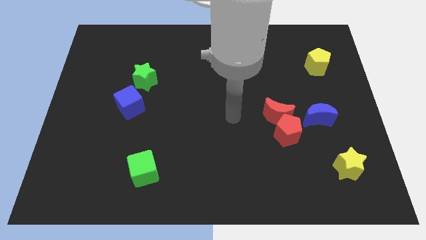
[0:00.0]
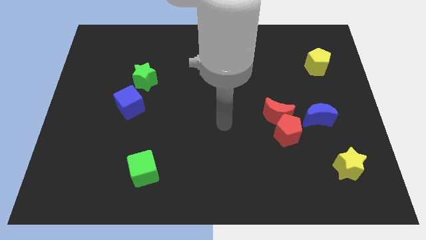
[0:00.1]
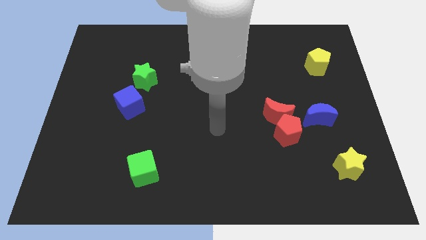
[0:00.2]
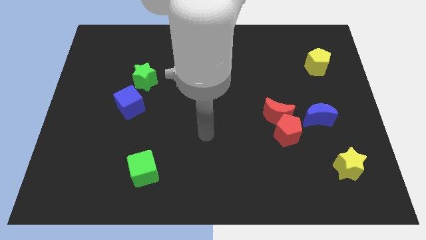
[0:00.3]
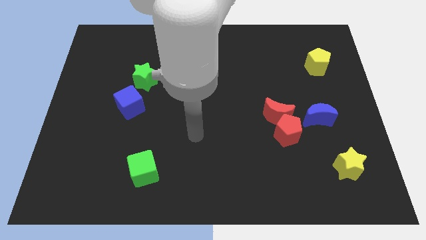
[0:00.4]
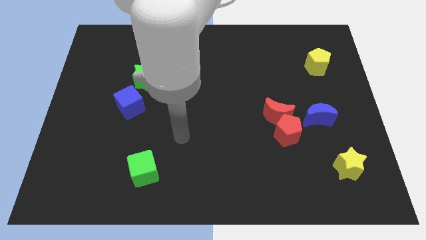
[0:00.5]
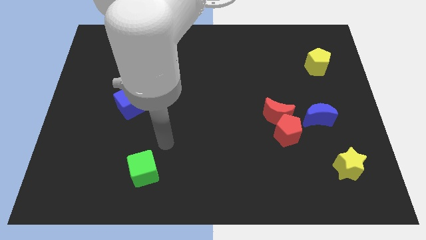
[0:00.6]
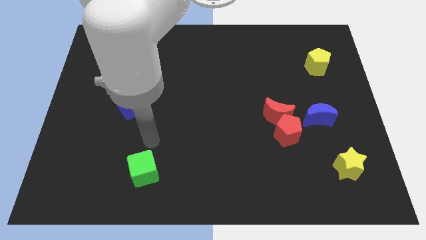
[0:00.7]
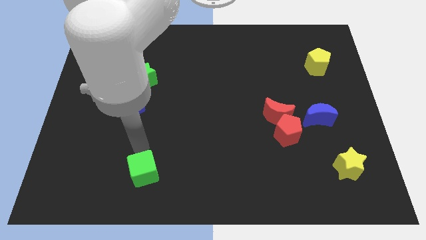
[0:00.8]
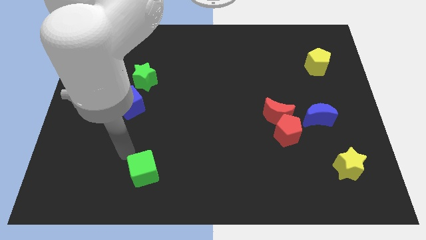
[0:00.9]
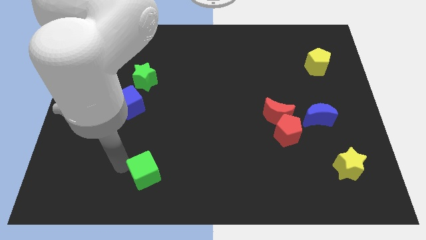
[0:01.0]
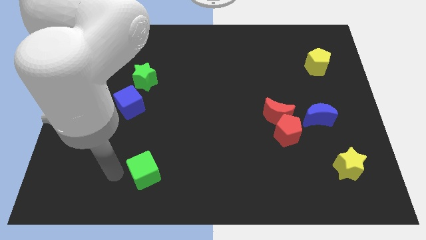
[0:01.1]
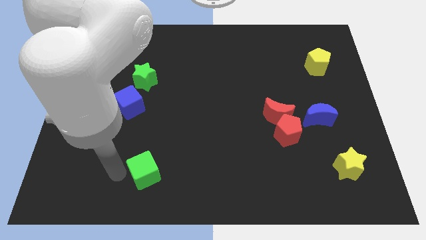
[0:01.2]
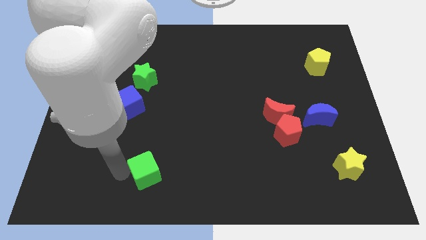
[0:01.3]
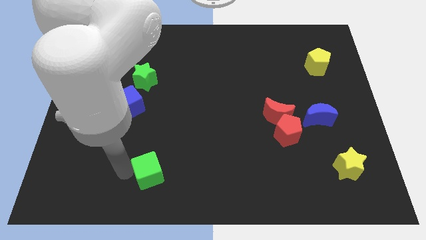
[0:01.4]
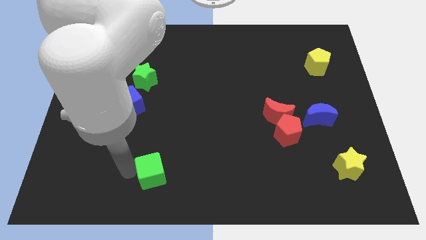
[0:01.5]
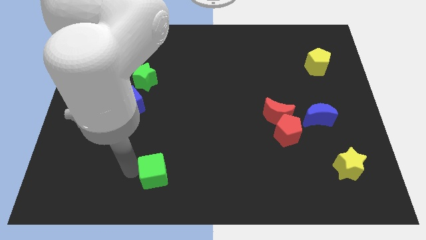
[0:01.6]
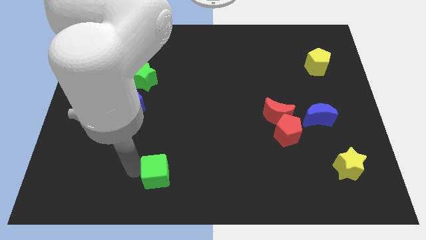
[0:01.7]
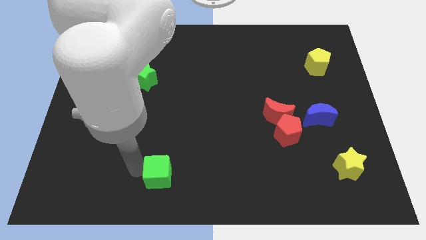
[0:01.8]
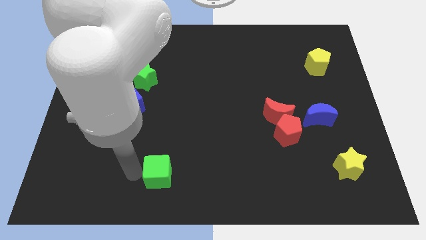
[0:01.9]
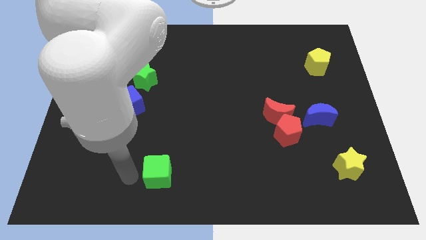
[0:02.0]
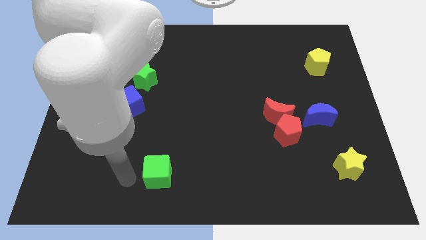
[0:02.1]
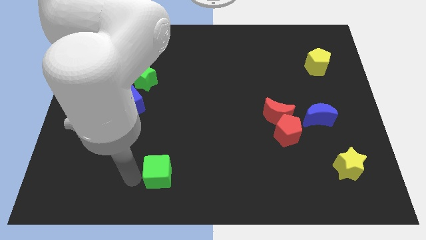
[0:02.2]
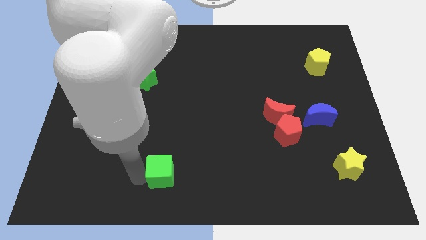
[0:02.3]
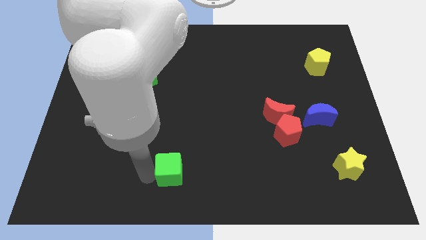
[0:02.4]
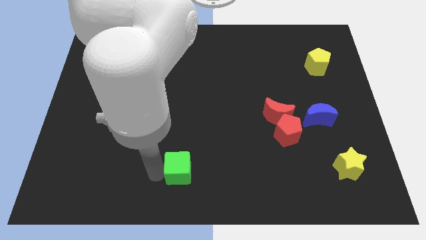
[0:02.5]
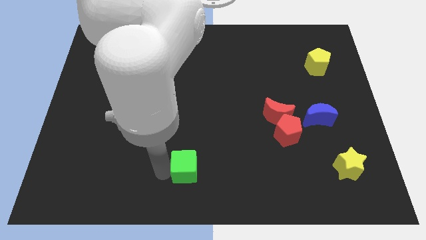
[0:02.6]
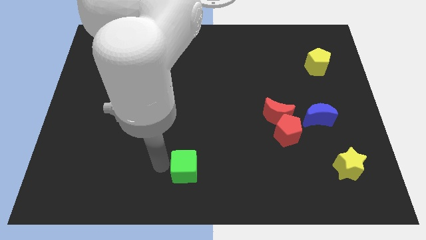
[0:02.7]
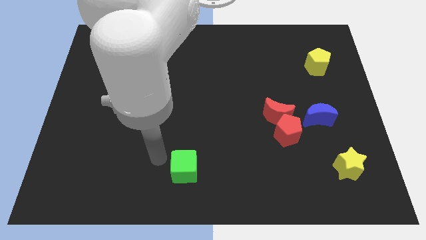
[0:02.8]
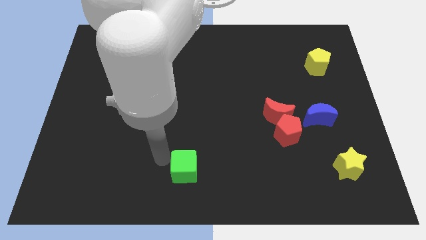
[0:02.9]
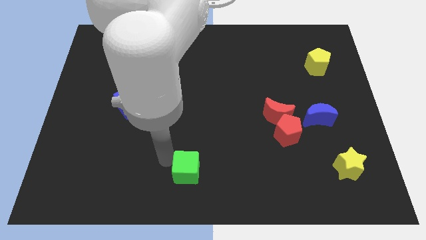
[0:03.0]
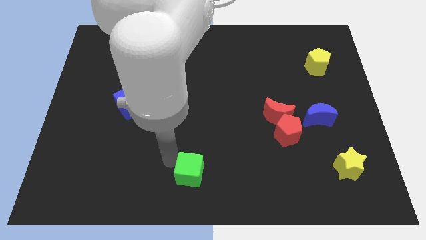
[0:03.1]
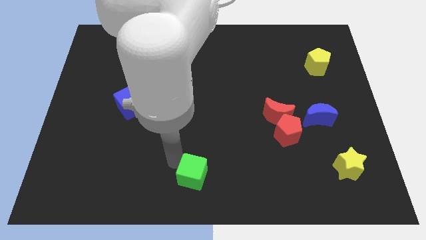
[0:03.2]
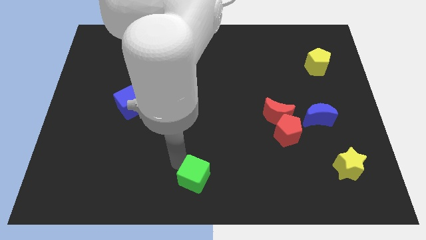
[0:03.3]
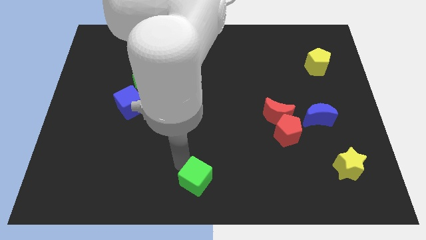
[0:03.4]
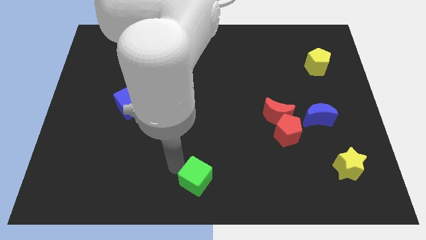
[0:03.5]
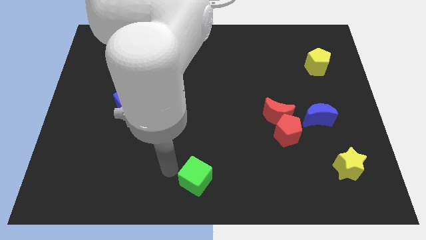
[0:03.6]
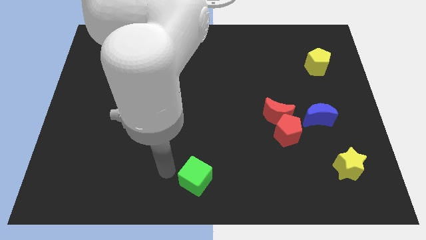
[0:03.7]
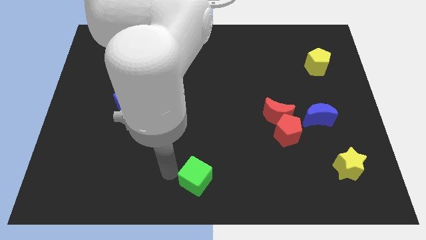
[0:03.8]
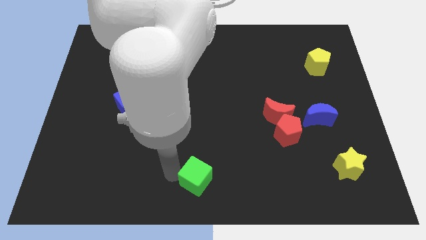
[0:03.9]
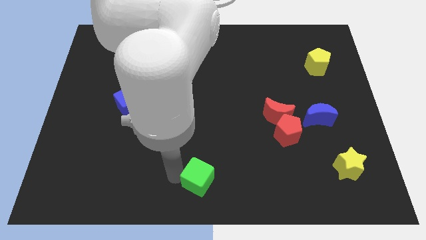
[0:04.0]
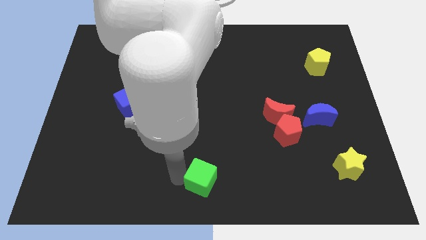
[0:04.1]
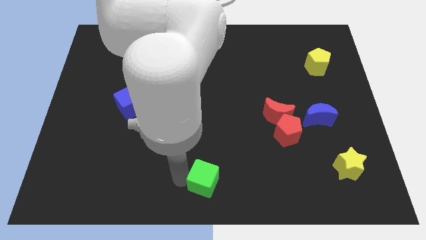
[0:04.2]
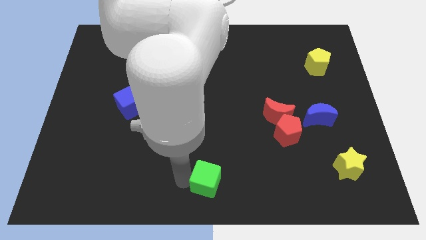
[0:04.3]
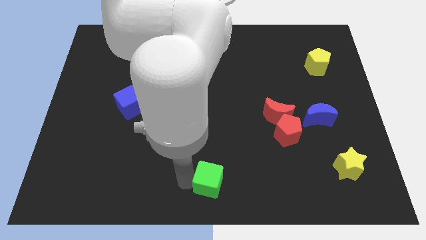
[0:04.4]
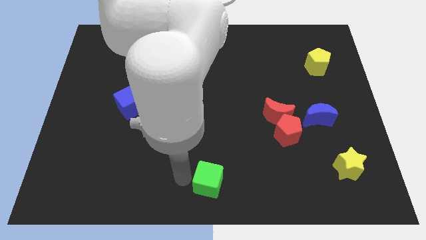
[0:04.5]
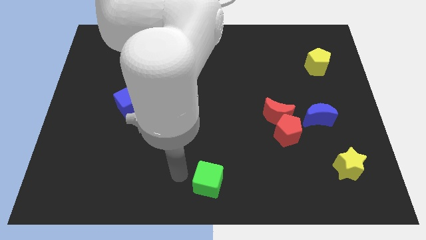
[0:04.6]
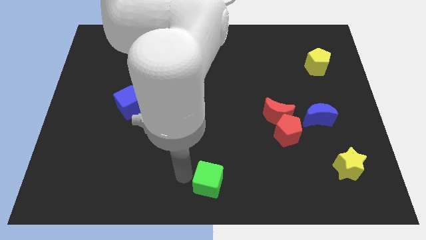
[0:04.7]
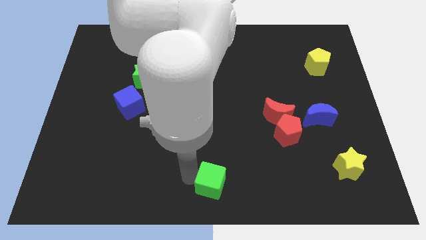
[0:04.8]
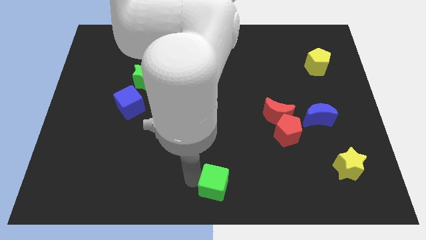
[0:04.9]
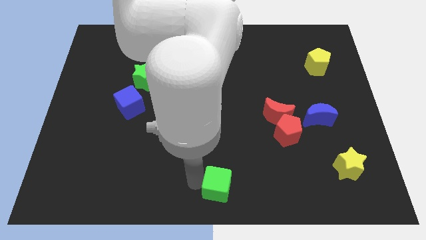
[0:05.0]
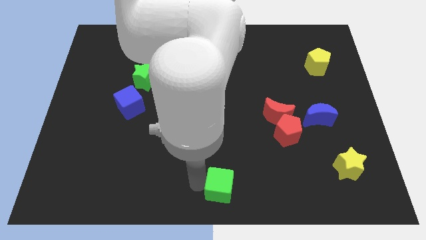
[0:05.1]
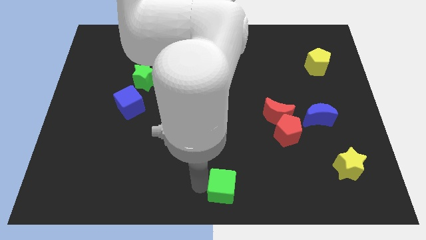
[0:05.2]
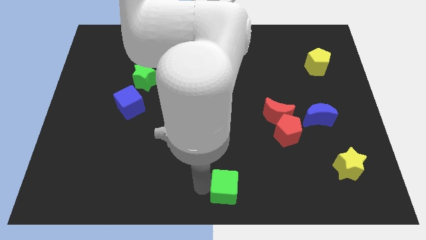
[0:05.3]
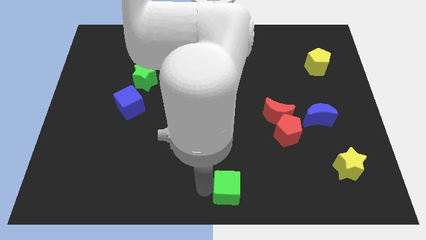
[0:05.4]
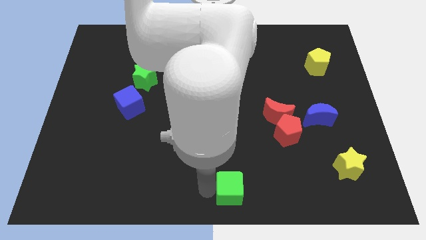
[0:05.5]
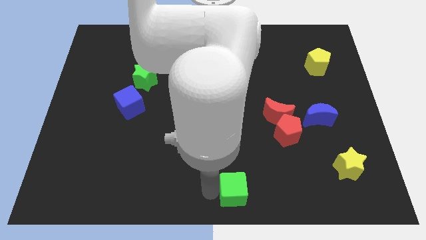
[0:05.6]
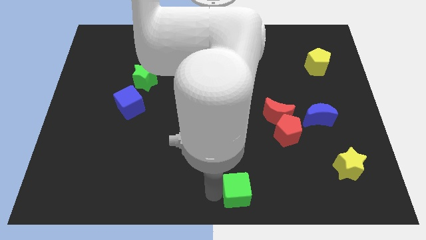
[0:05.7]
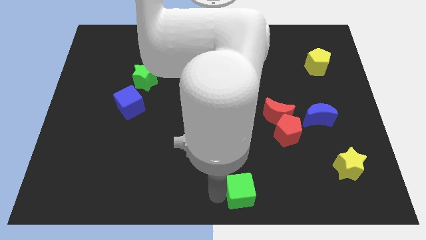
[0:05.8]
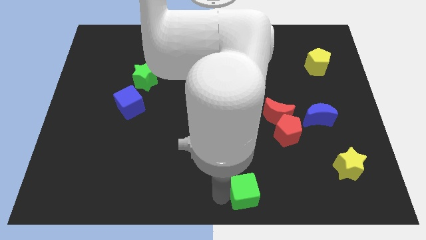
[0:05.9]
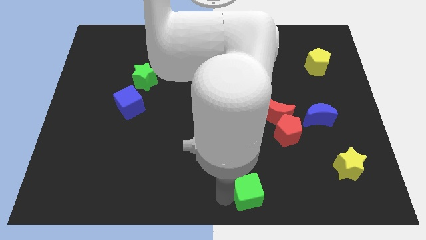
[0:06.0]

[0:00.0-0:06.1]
slide the green cube right

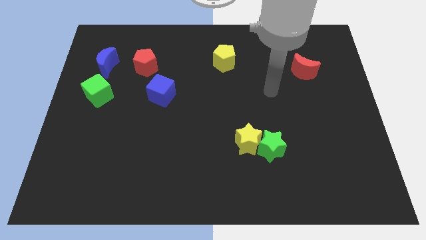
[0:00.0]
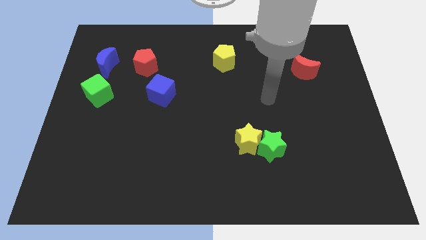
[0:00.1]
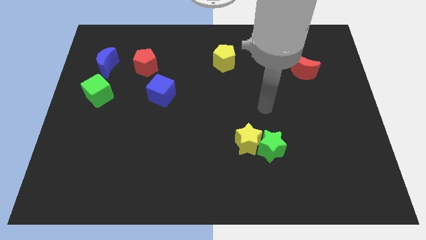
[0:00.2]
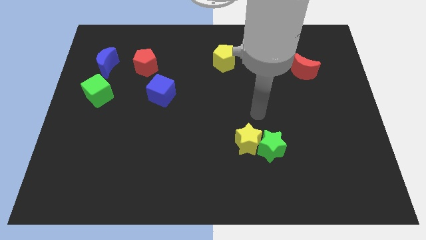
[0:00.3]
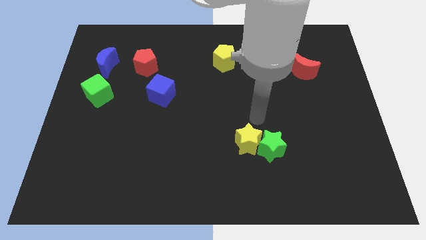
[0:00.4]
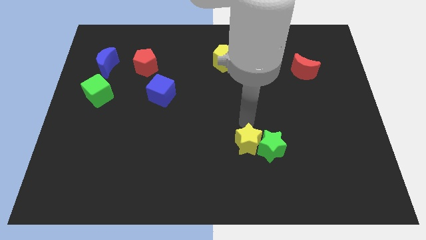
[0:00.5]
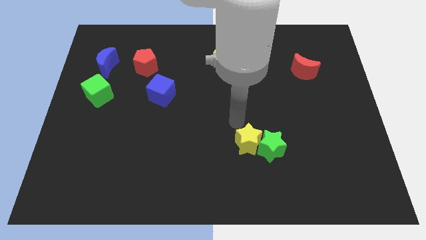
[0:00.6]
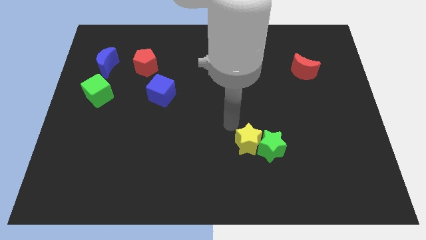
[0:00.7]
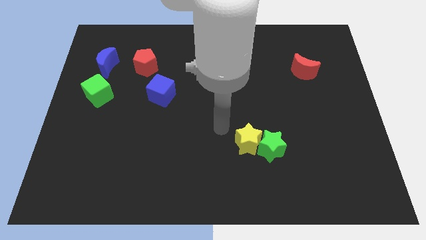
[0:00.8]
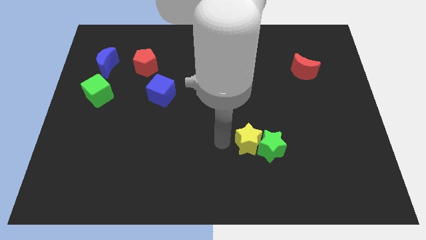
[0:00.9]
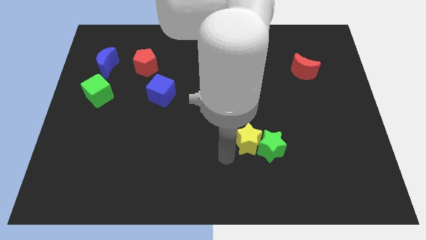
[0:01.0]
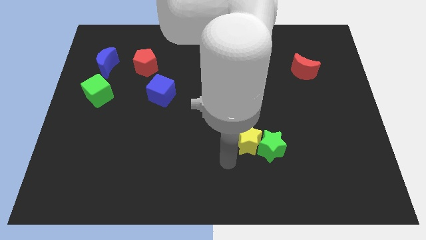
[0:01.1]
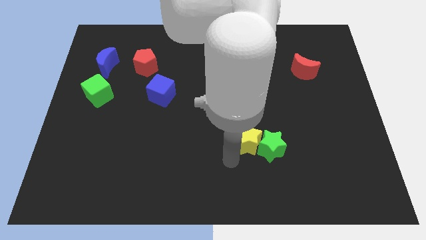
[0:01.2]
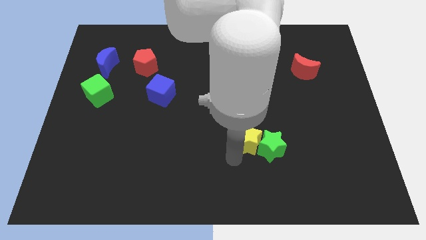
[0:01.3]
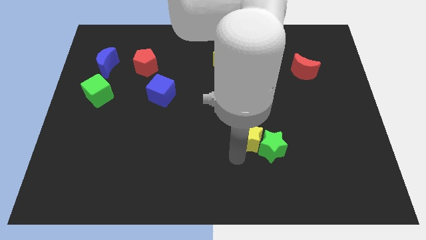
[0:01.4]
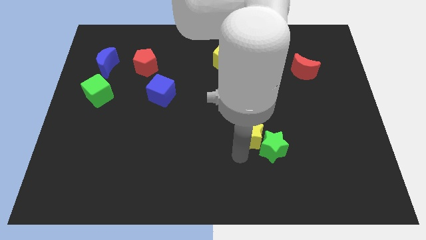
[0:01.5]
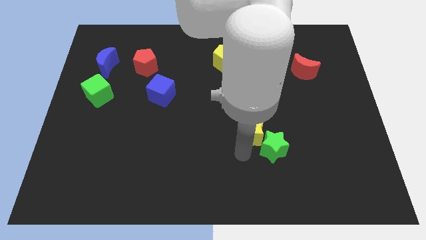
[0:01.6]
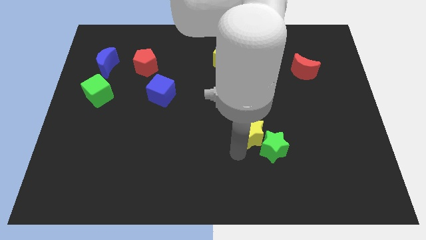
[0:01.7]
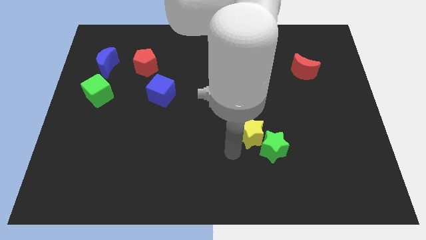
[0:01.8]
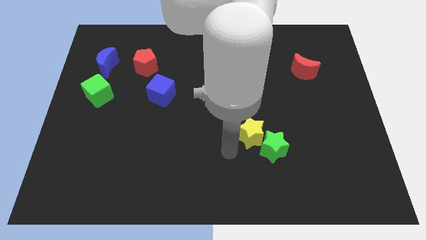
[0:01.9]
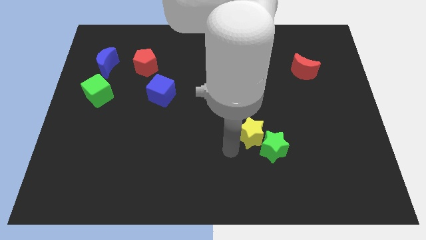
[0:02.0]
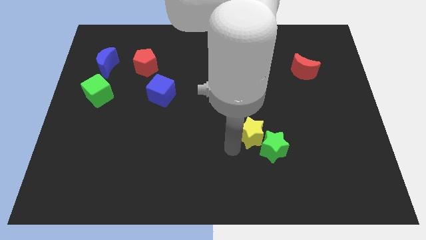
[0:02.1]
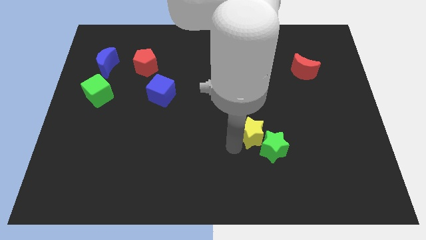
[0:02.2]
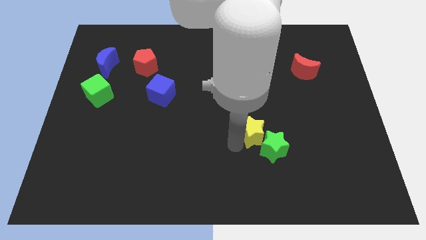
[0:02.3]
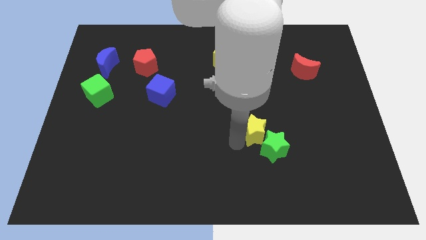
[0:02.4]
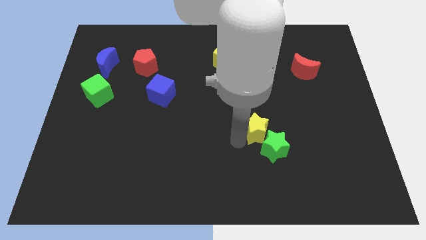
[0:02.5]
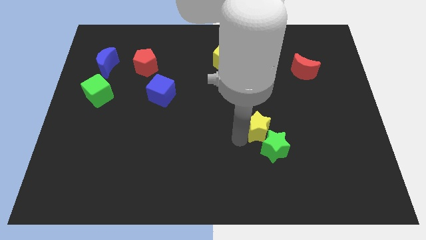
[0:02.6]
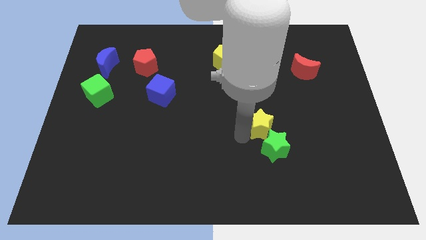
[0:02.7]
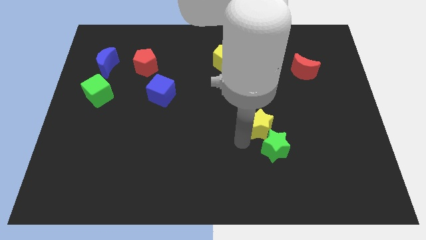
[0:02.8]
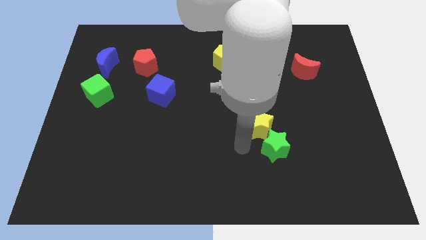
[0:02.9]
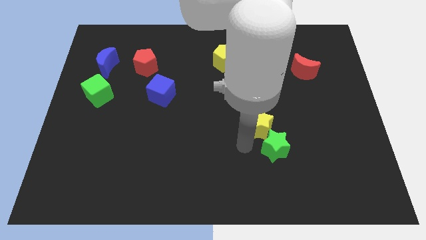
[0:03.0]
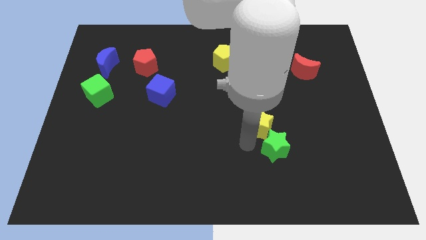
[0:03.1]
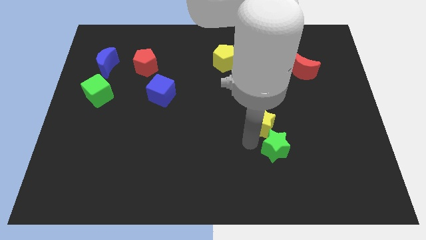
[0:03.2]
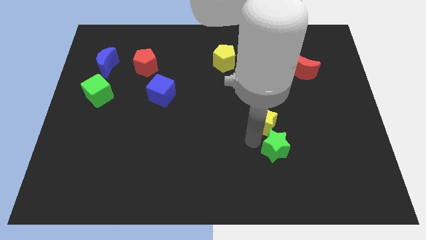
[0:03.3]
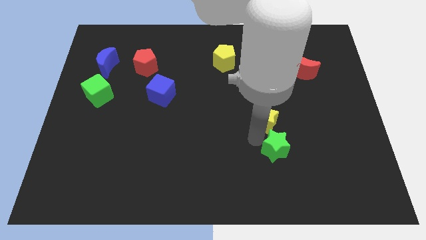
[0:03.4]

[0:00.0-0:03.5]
move the yellow star upwards and then right slightly
